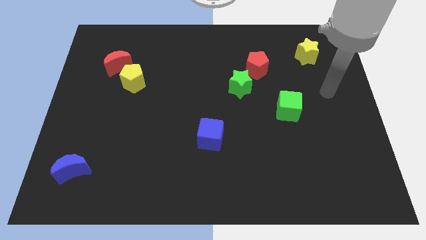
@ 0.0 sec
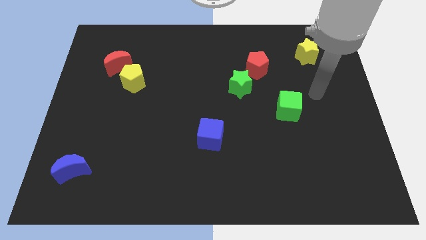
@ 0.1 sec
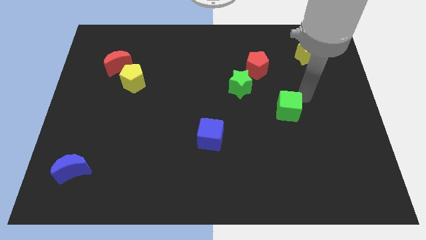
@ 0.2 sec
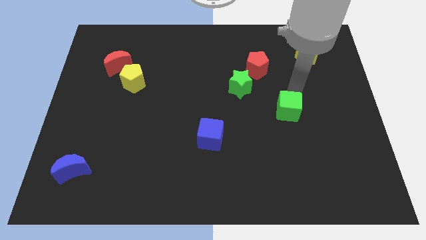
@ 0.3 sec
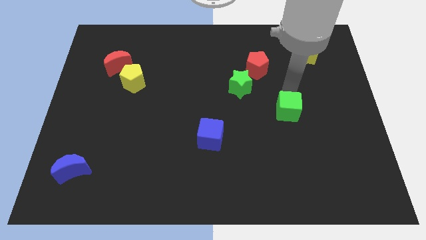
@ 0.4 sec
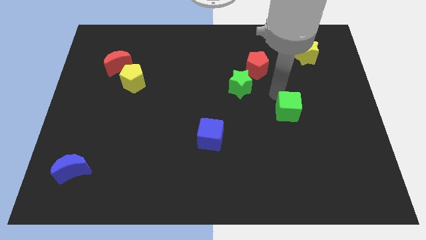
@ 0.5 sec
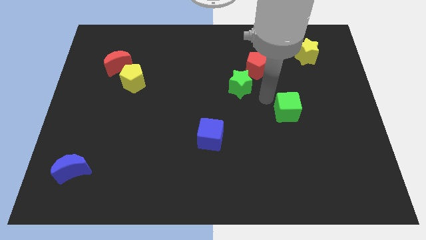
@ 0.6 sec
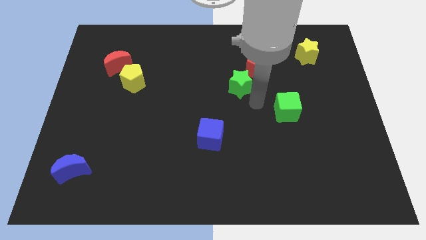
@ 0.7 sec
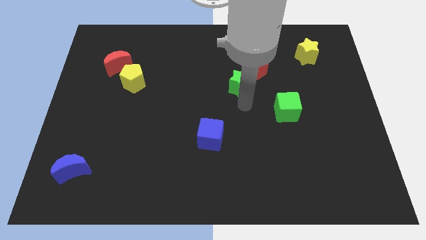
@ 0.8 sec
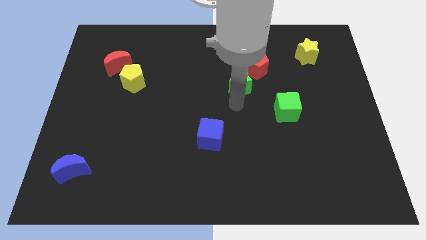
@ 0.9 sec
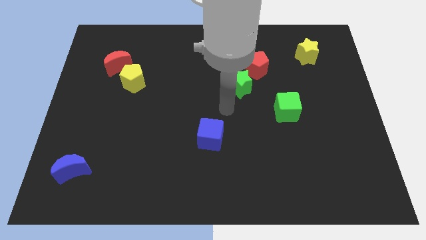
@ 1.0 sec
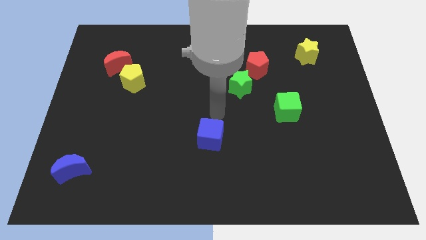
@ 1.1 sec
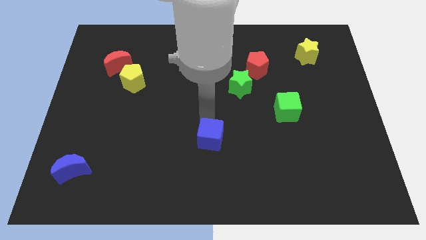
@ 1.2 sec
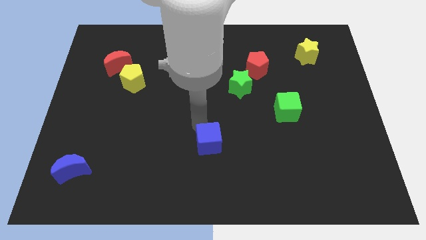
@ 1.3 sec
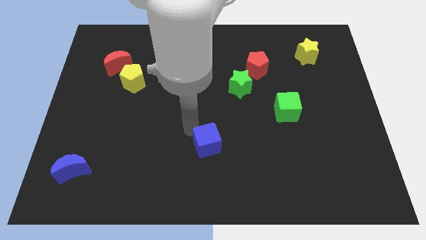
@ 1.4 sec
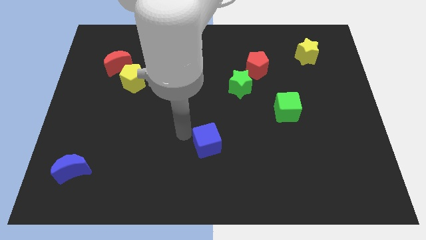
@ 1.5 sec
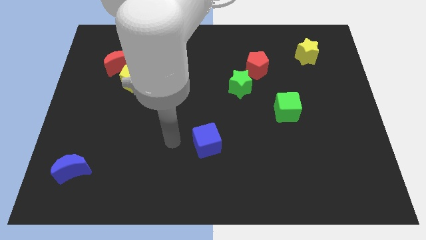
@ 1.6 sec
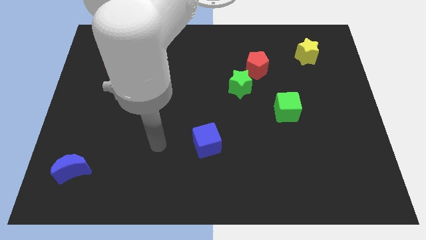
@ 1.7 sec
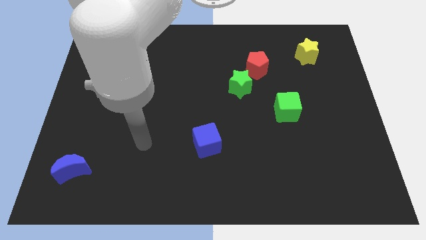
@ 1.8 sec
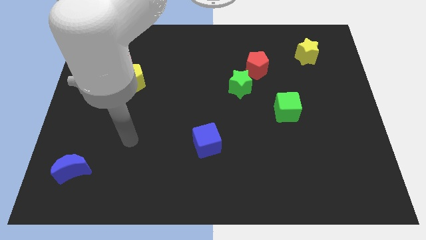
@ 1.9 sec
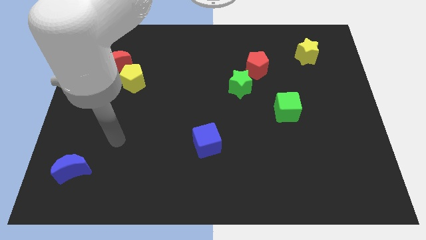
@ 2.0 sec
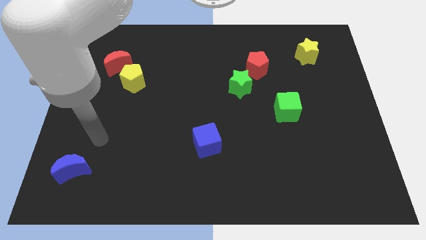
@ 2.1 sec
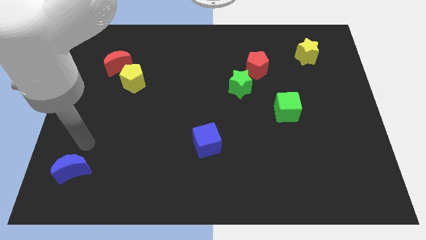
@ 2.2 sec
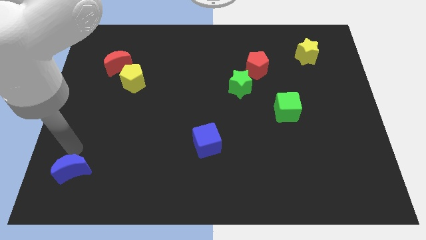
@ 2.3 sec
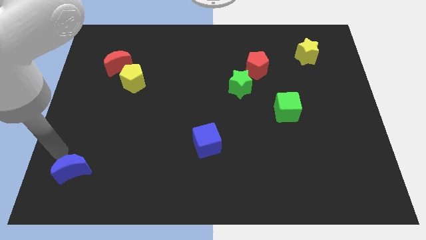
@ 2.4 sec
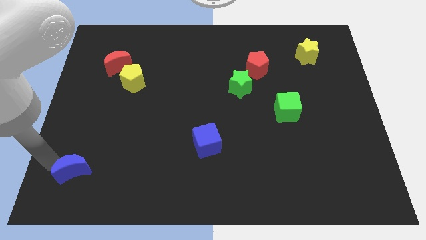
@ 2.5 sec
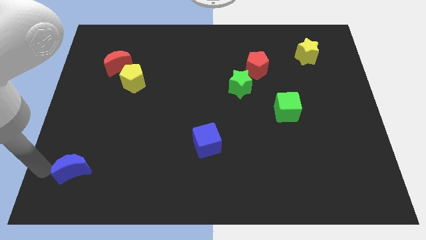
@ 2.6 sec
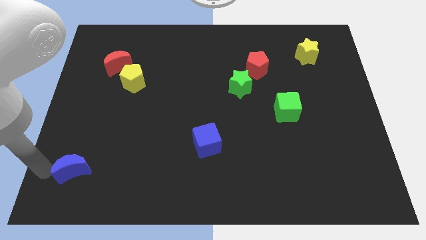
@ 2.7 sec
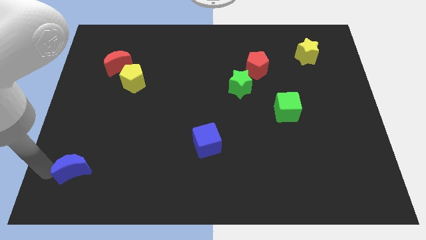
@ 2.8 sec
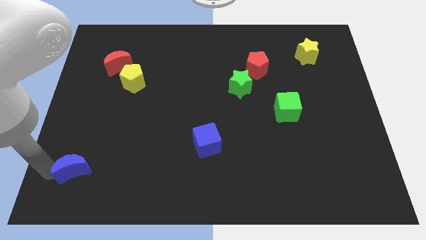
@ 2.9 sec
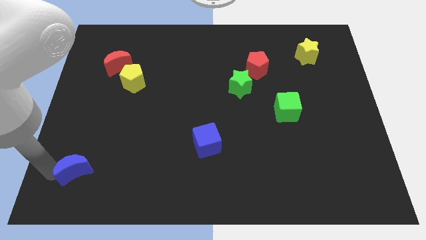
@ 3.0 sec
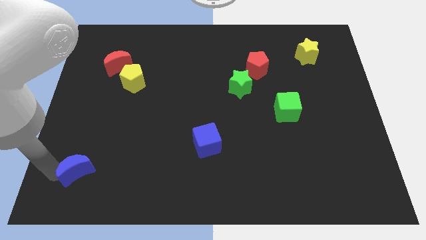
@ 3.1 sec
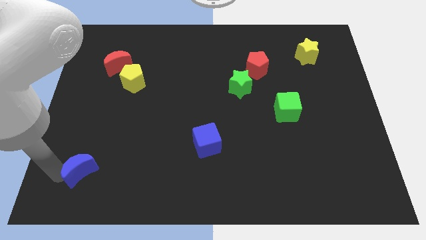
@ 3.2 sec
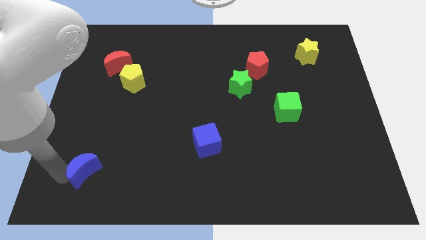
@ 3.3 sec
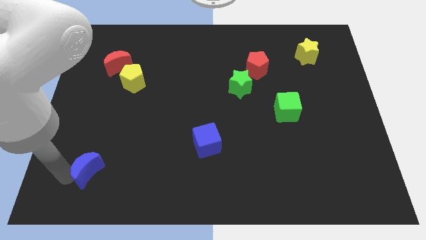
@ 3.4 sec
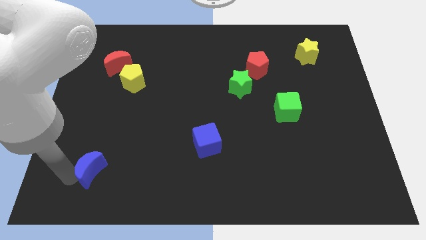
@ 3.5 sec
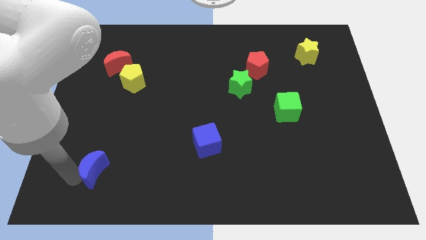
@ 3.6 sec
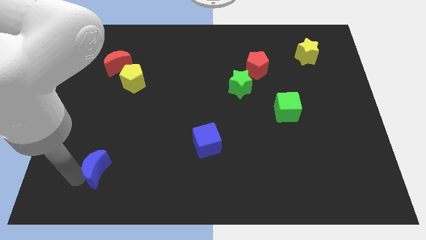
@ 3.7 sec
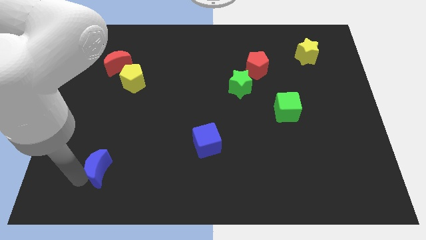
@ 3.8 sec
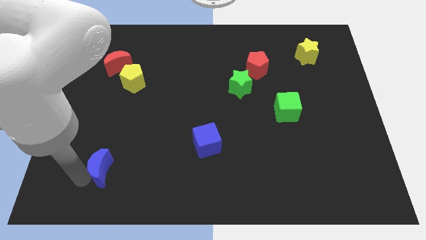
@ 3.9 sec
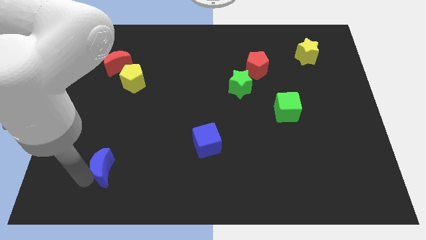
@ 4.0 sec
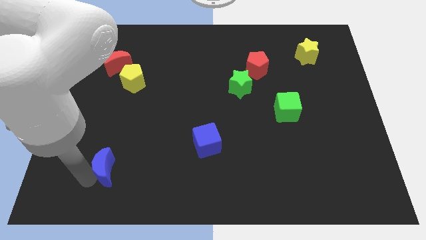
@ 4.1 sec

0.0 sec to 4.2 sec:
slightly slide the blue moon to the right

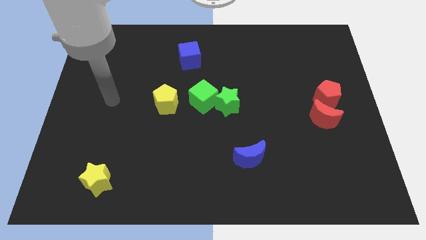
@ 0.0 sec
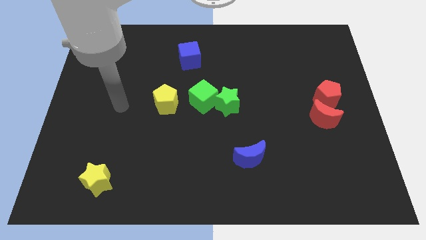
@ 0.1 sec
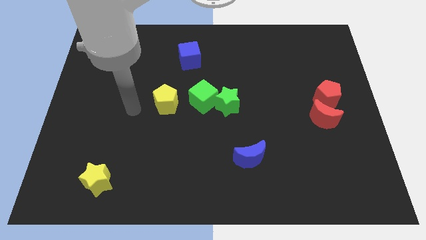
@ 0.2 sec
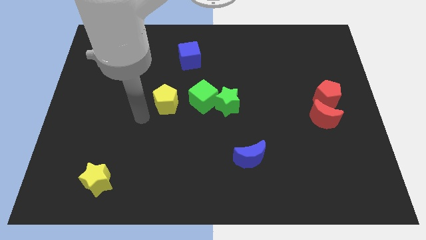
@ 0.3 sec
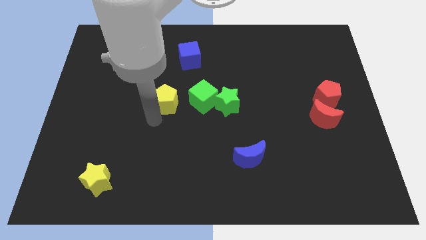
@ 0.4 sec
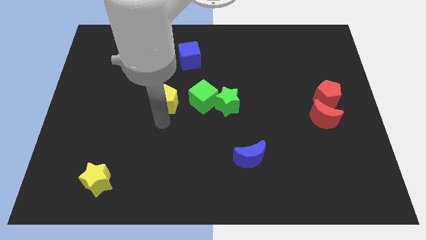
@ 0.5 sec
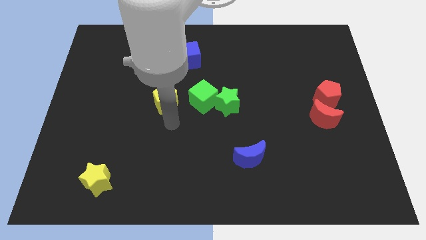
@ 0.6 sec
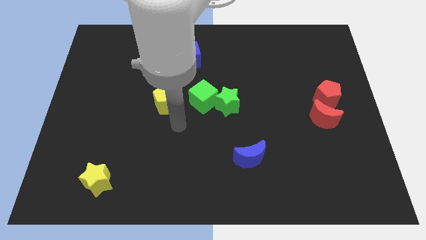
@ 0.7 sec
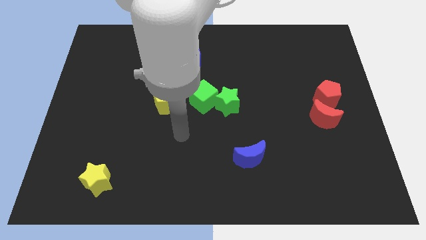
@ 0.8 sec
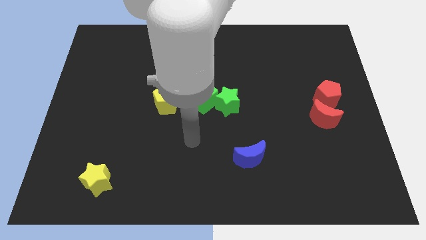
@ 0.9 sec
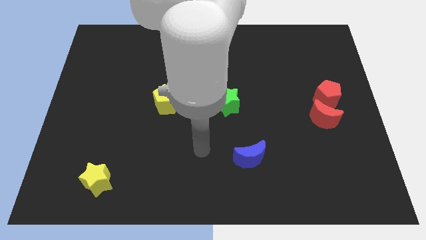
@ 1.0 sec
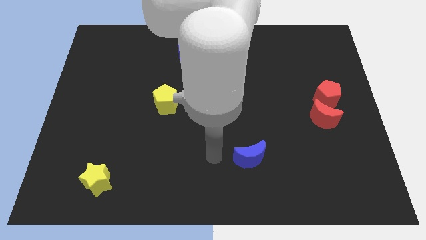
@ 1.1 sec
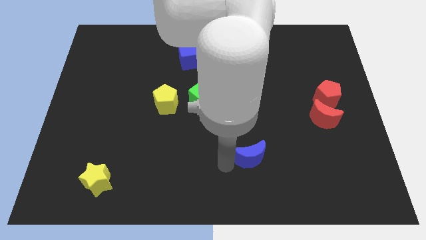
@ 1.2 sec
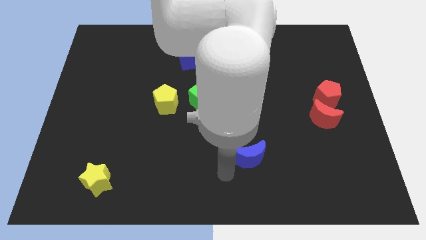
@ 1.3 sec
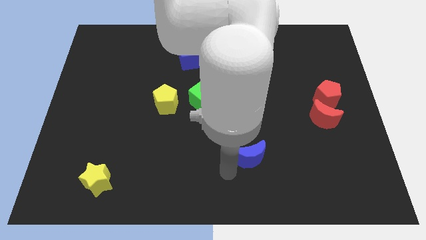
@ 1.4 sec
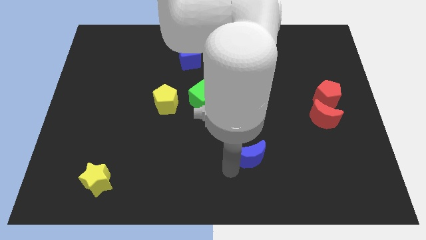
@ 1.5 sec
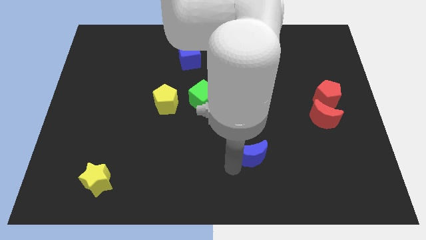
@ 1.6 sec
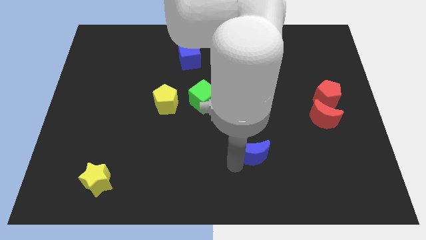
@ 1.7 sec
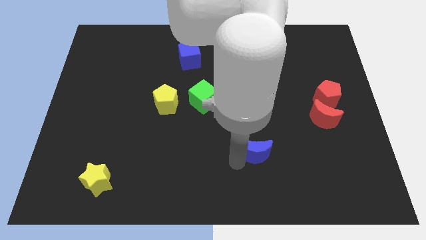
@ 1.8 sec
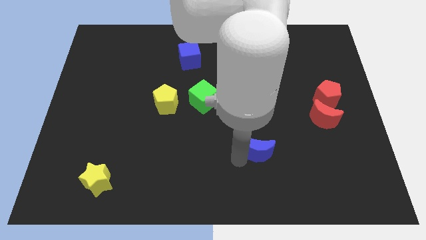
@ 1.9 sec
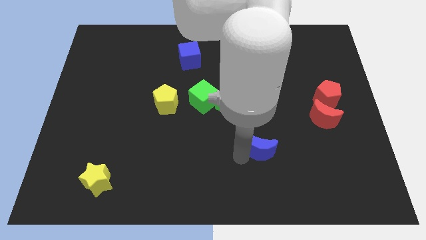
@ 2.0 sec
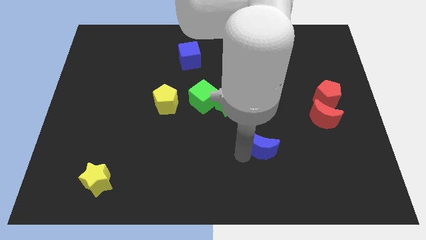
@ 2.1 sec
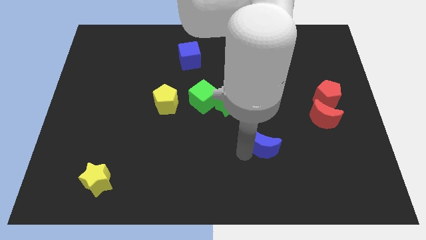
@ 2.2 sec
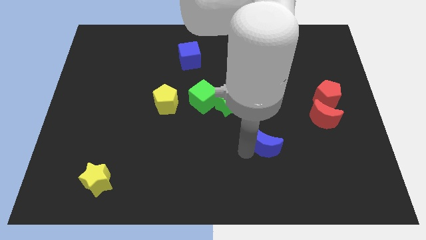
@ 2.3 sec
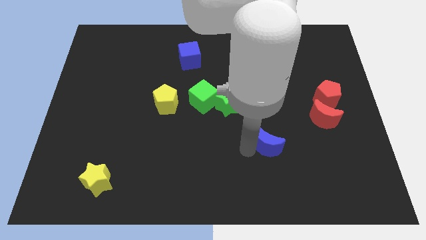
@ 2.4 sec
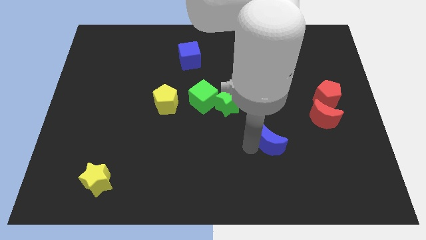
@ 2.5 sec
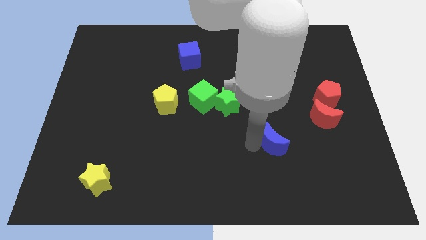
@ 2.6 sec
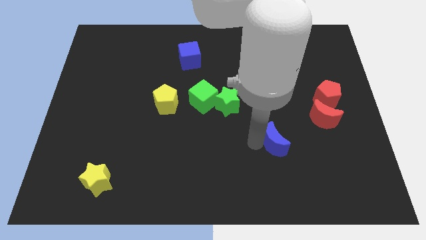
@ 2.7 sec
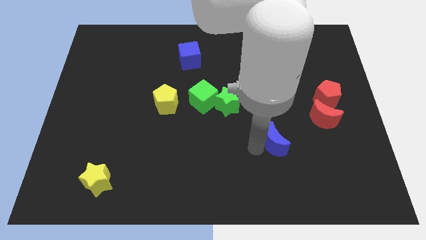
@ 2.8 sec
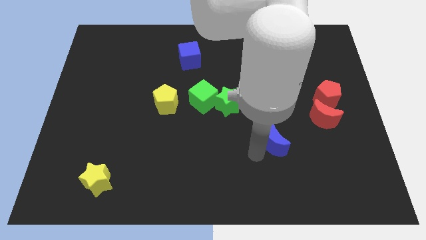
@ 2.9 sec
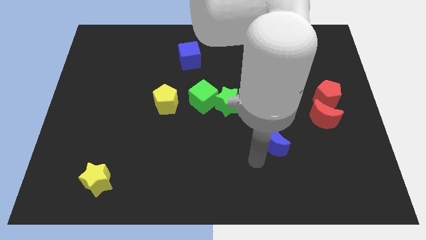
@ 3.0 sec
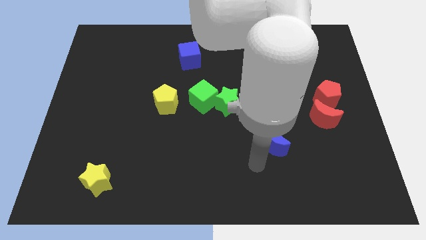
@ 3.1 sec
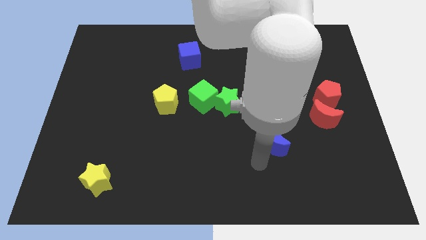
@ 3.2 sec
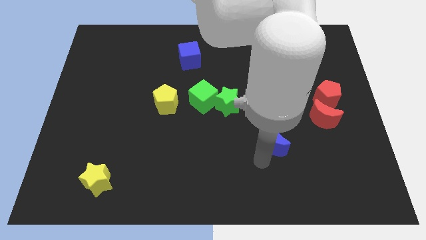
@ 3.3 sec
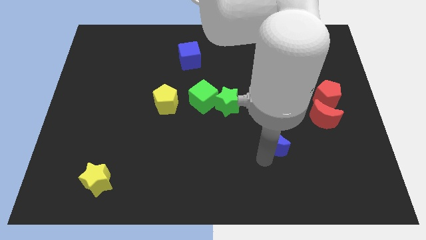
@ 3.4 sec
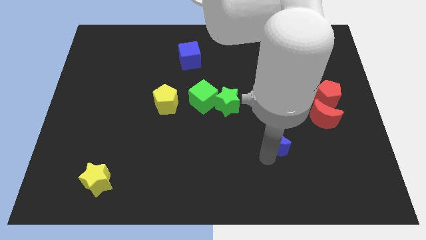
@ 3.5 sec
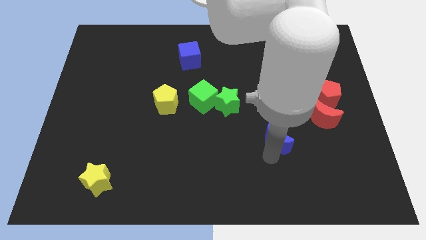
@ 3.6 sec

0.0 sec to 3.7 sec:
slide the blue moon a little bit upwards and right diagonally
